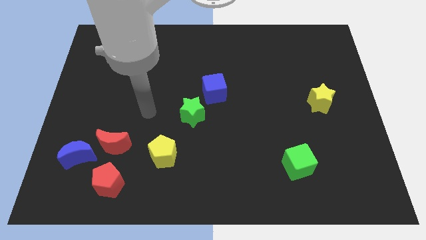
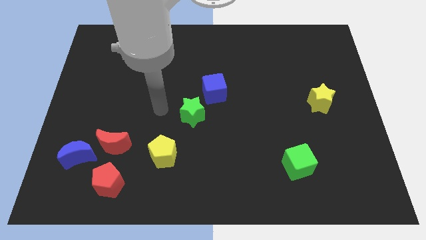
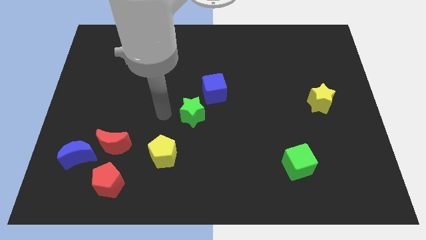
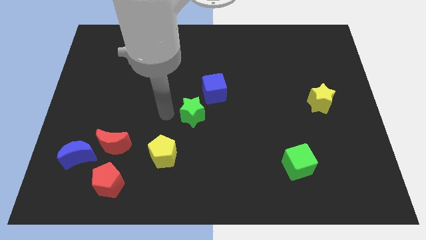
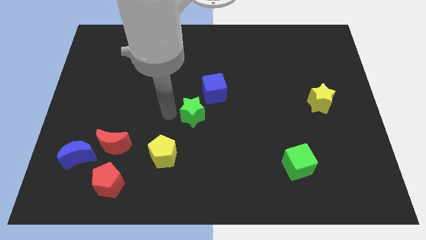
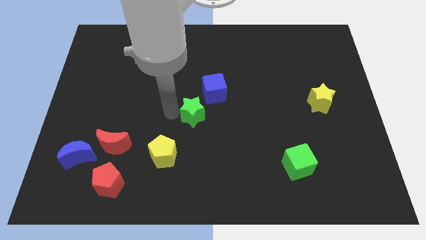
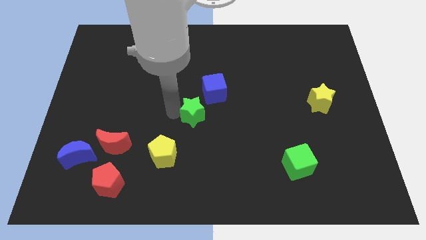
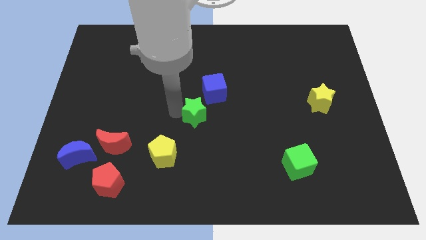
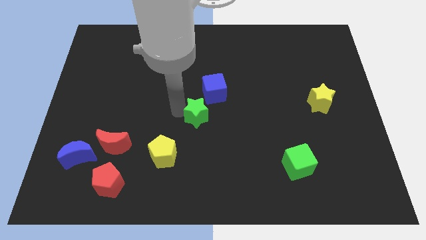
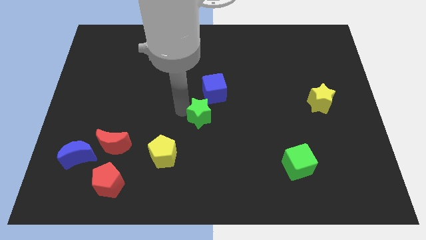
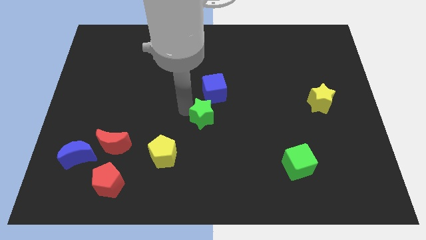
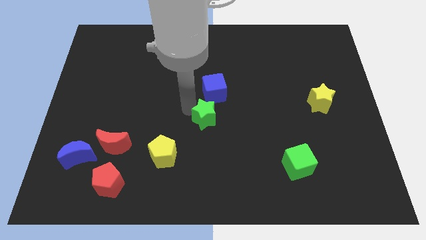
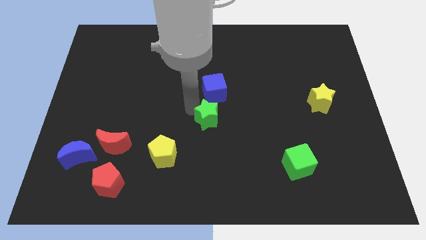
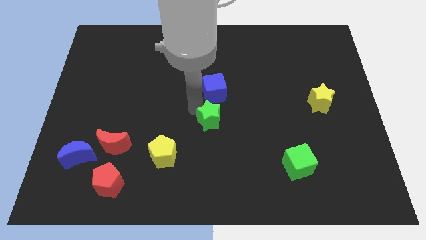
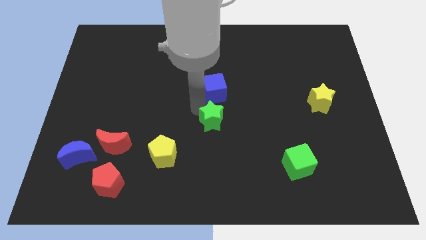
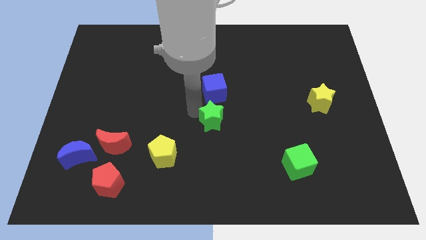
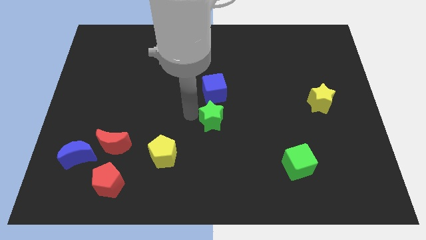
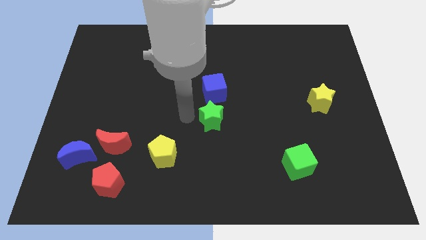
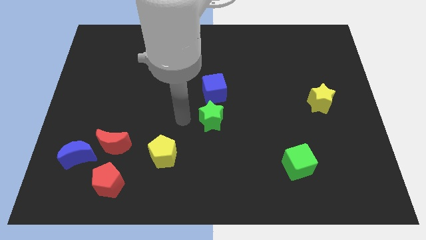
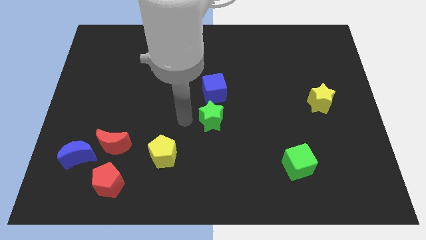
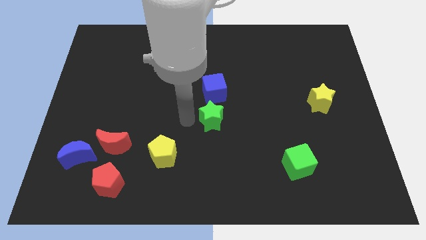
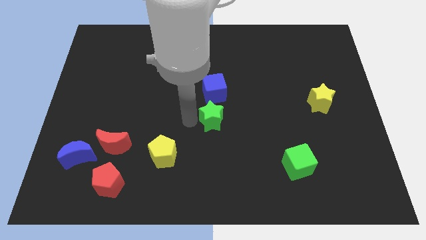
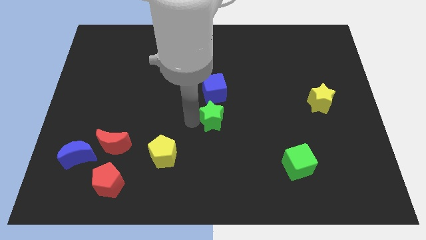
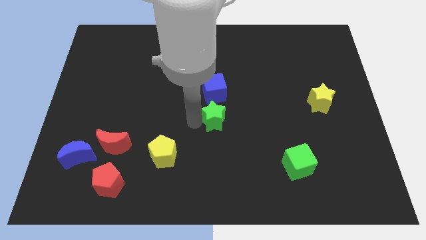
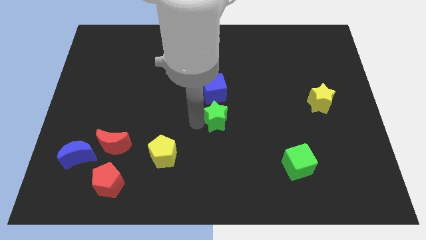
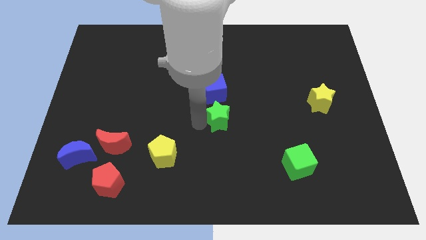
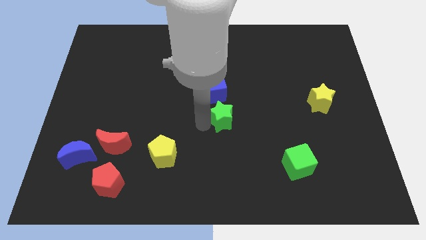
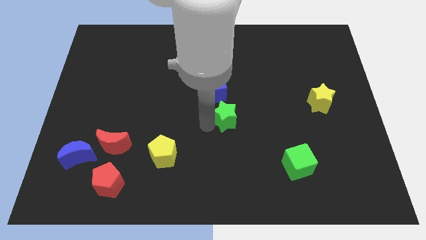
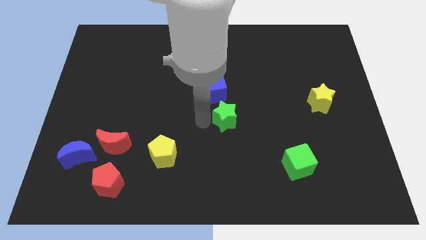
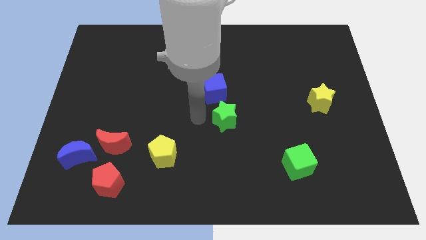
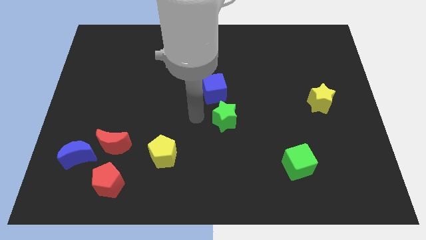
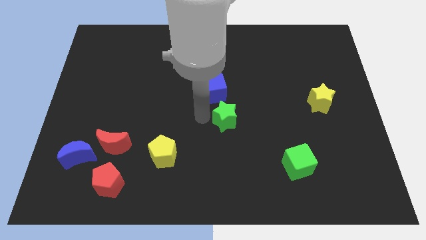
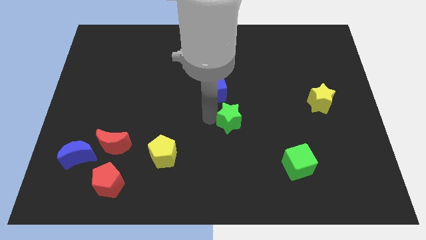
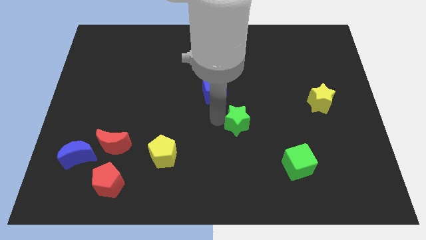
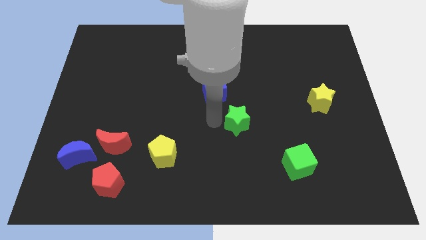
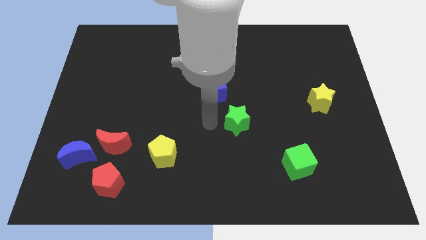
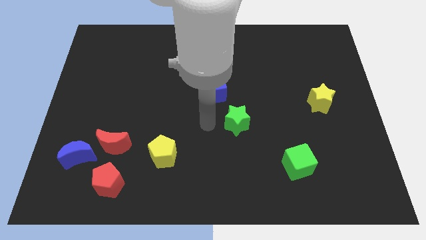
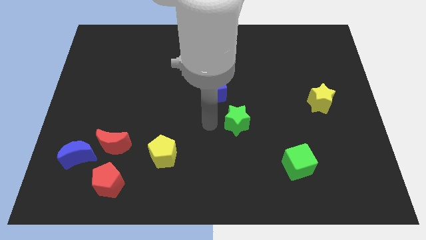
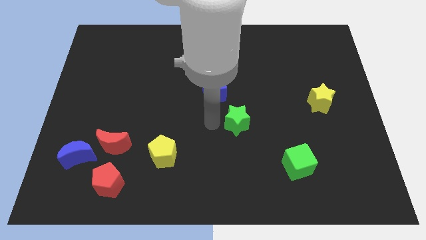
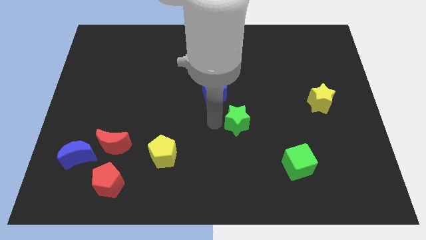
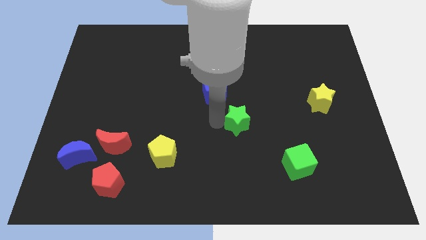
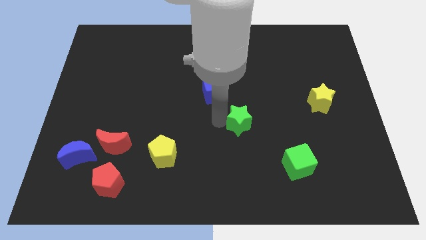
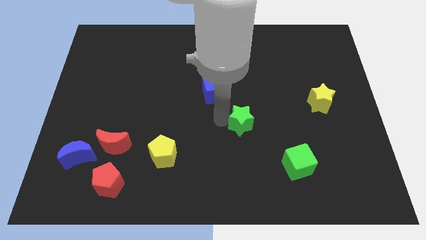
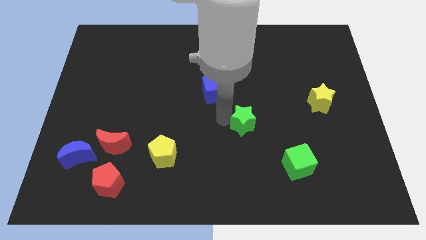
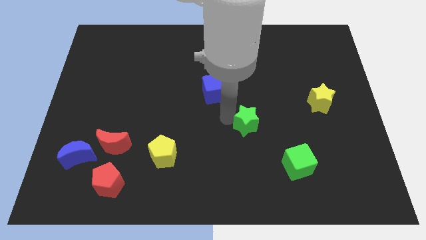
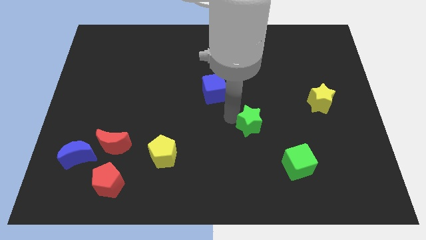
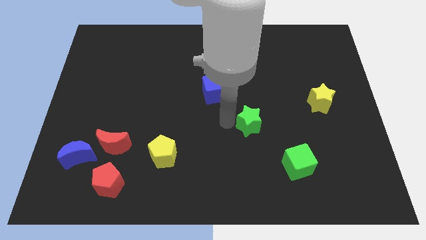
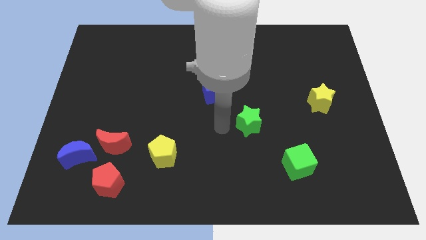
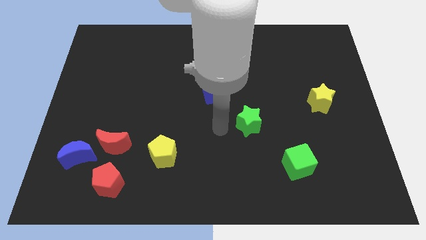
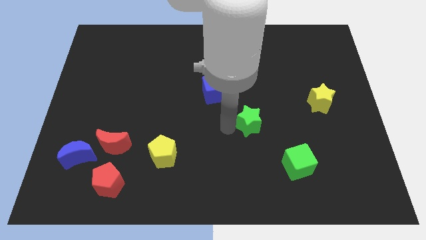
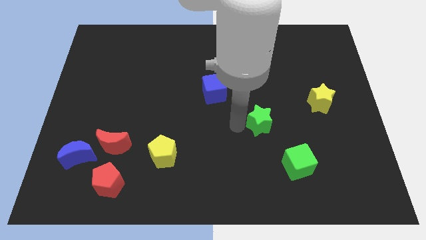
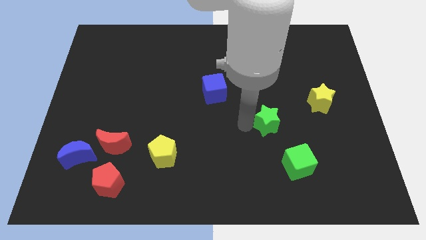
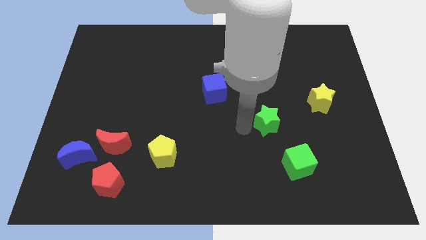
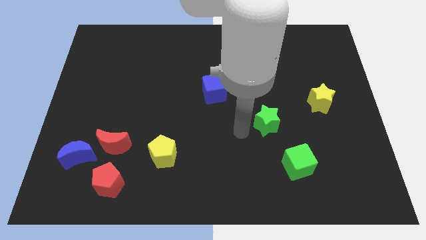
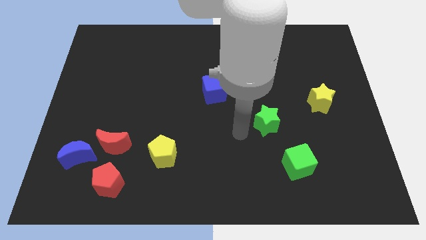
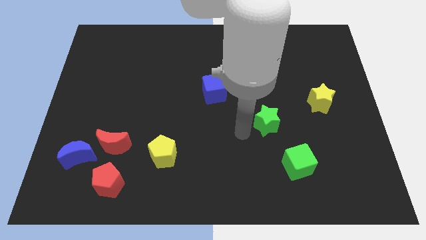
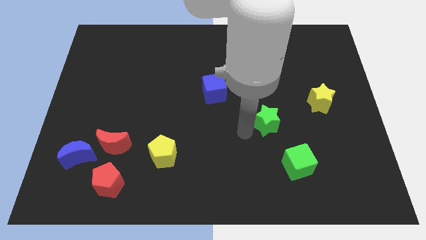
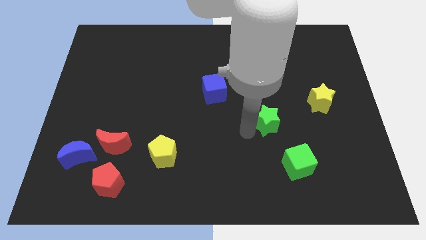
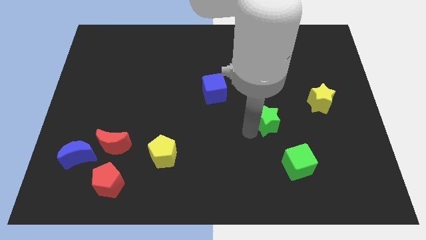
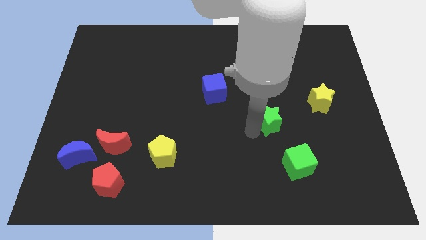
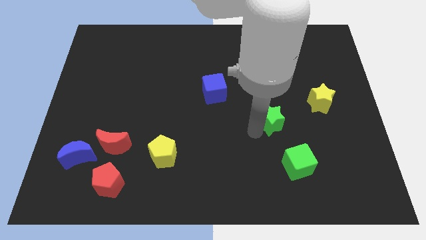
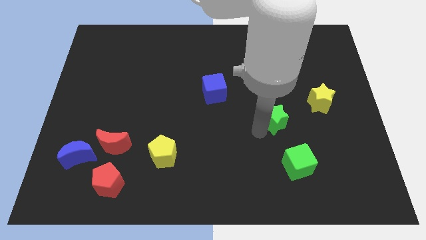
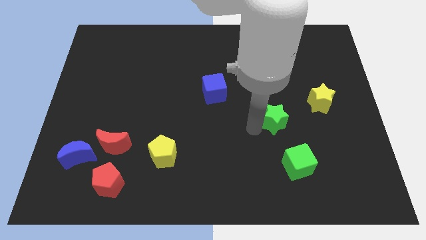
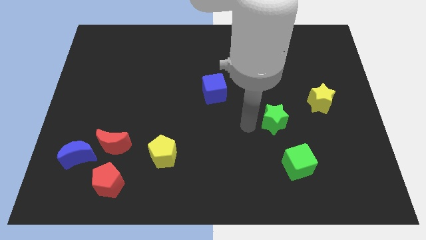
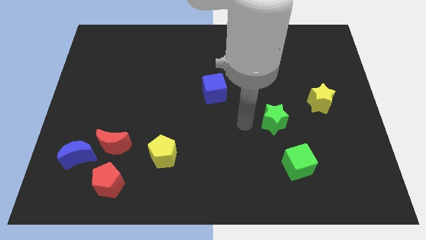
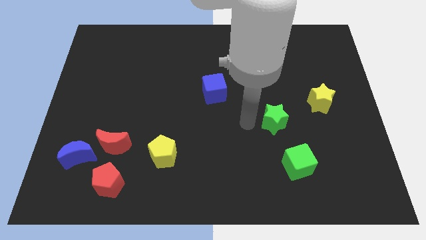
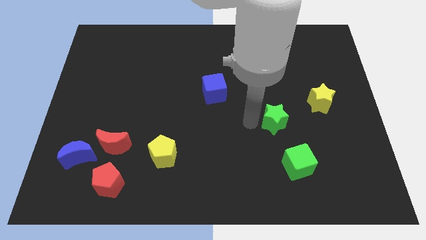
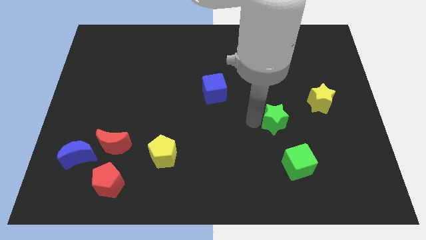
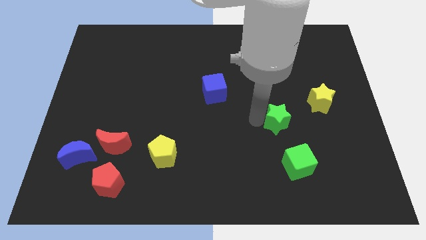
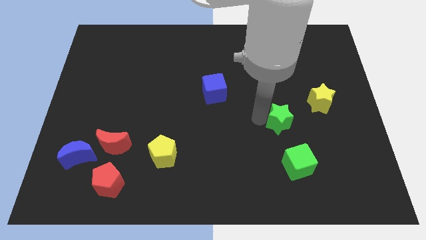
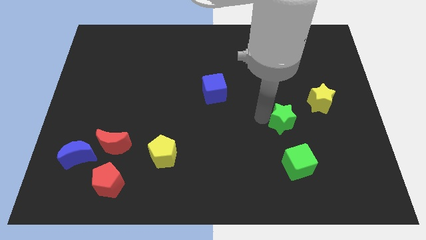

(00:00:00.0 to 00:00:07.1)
move the green star diagonally down and to the left of the yellow star

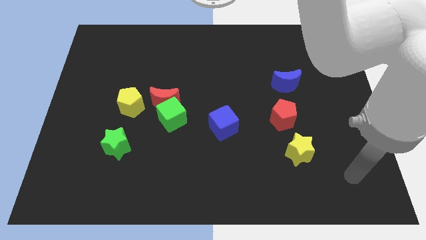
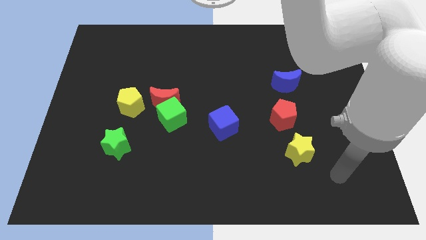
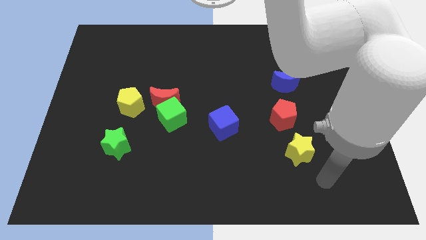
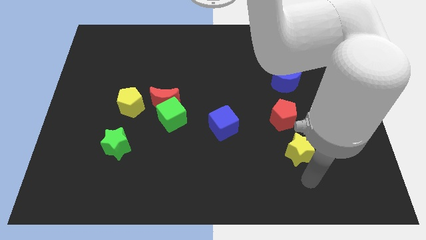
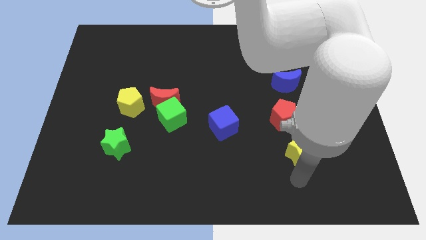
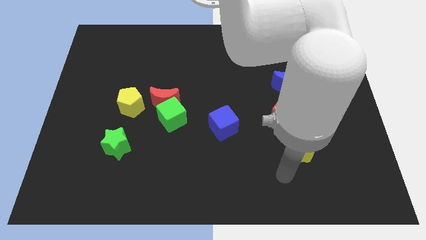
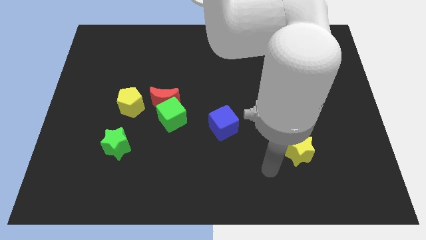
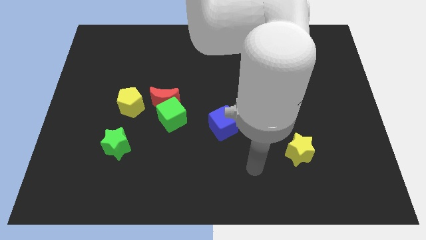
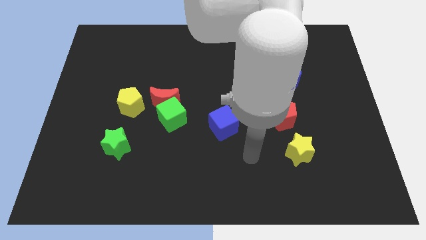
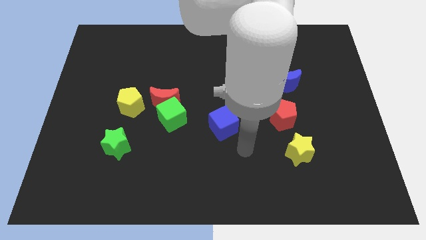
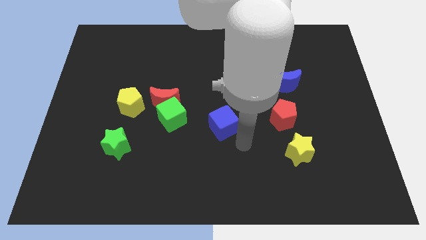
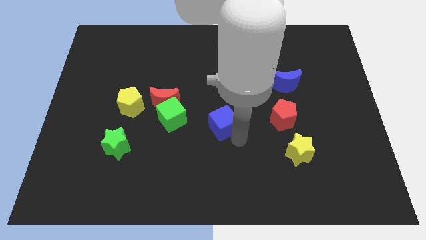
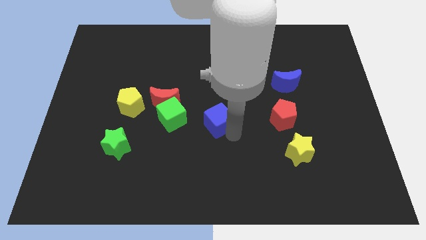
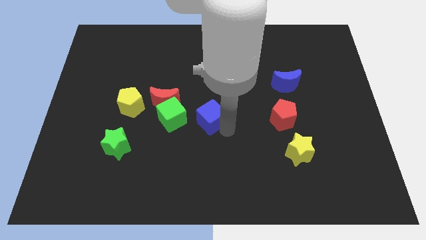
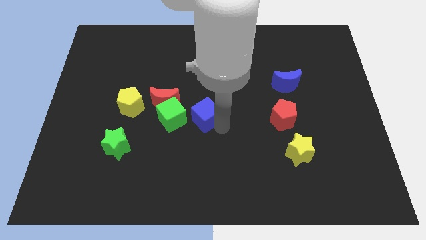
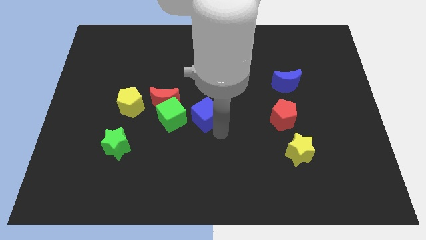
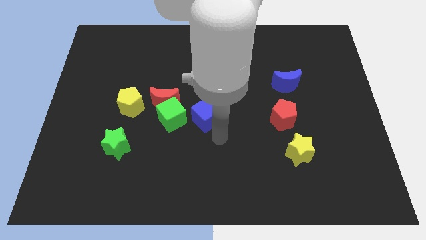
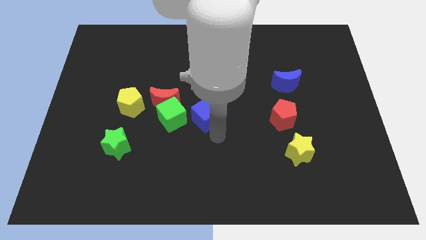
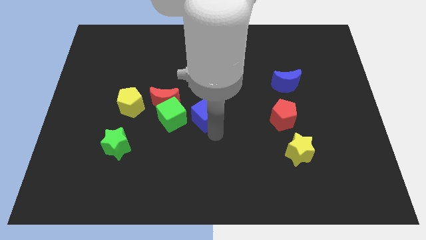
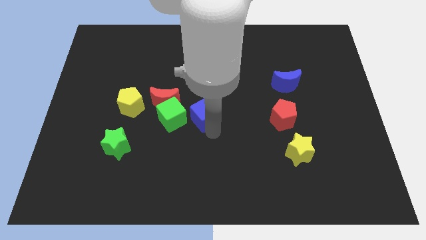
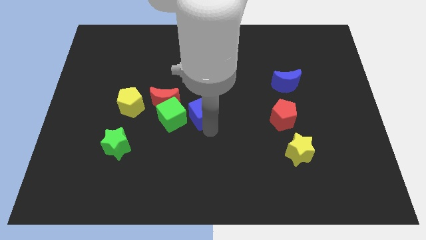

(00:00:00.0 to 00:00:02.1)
push the blue cube to the top right of the green cube
